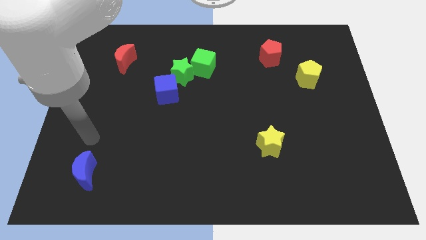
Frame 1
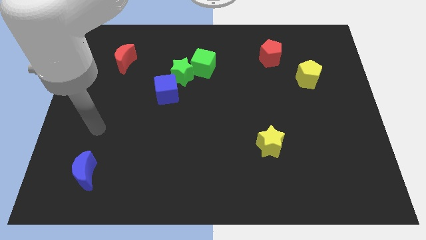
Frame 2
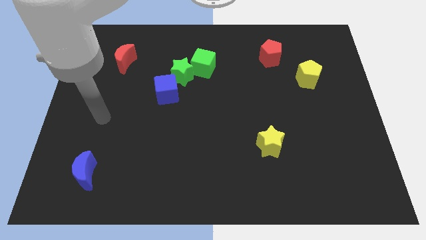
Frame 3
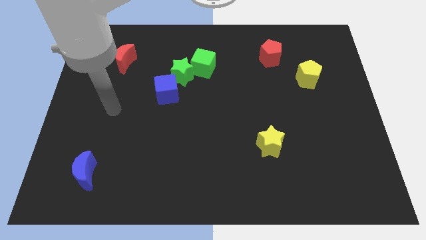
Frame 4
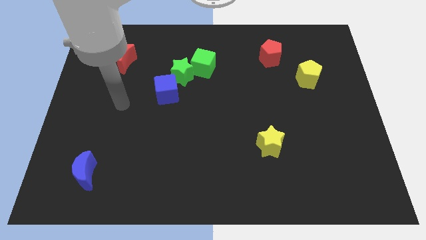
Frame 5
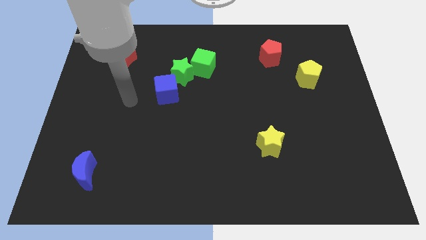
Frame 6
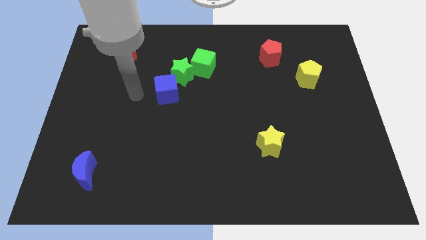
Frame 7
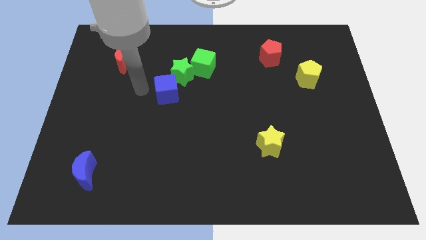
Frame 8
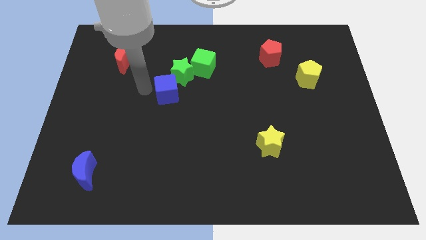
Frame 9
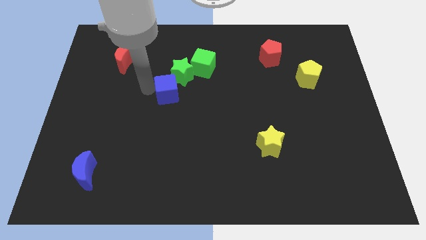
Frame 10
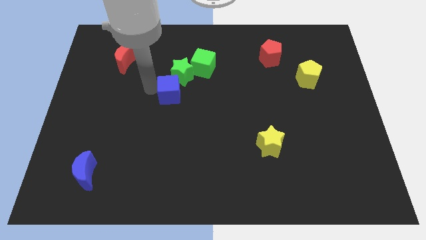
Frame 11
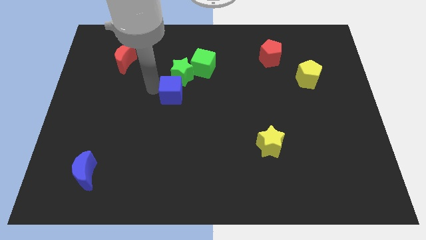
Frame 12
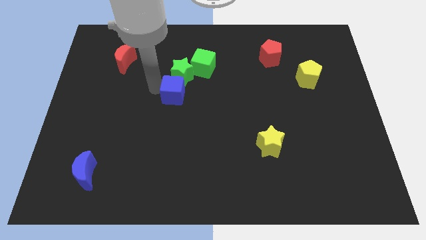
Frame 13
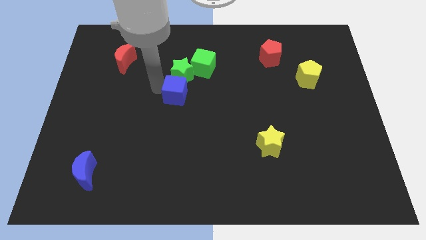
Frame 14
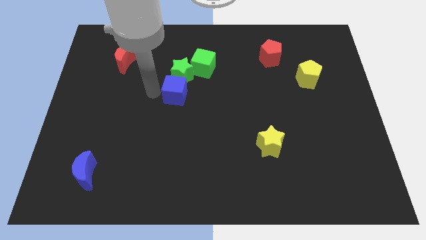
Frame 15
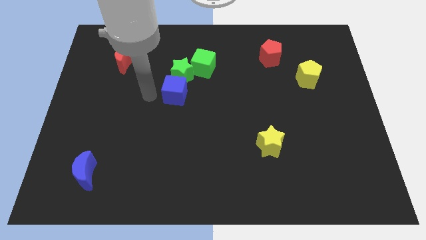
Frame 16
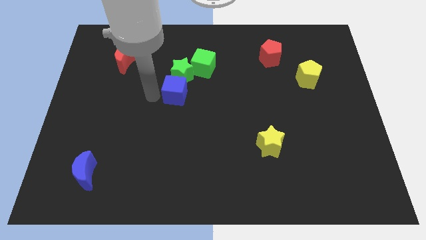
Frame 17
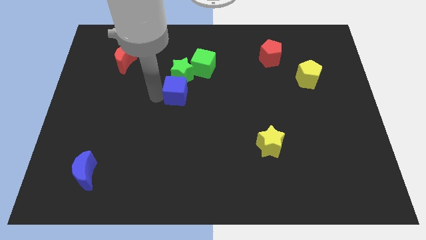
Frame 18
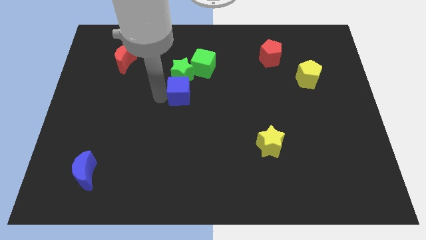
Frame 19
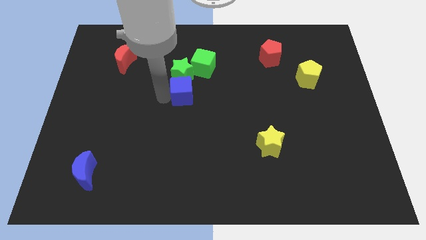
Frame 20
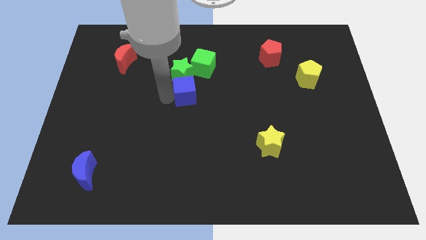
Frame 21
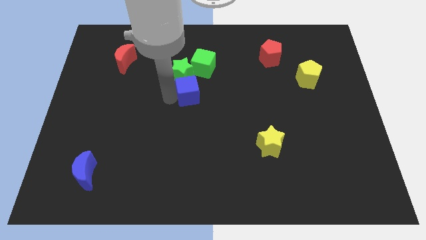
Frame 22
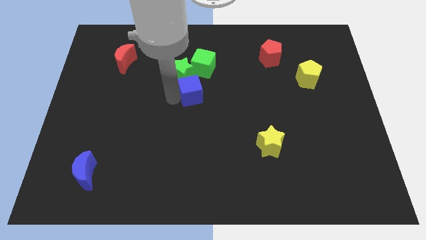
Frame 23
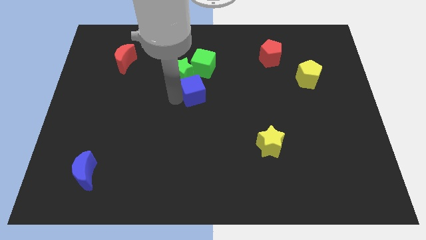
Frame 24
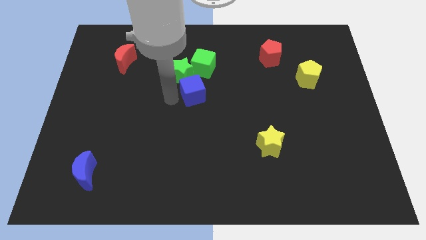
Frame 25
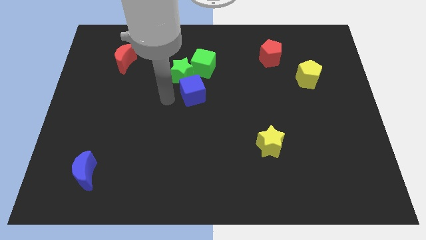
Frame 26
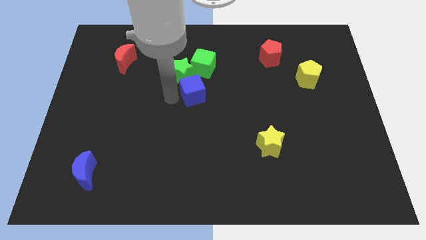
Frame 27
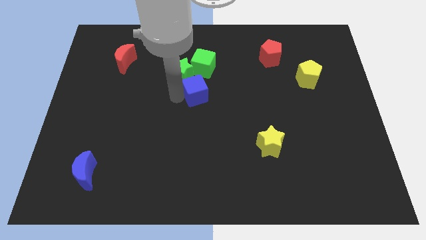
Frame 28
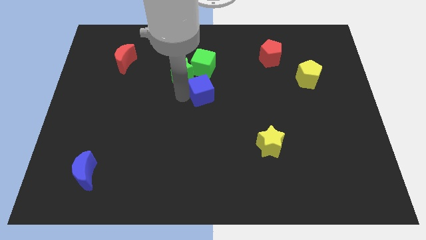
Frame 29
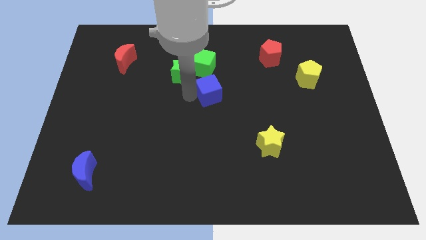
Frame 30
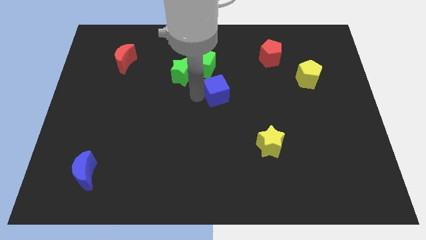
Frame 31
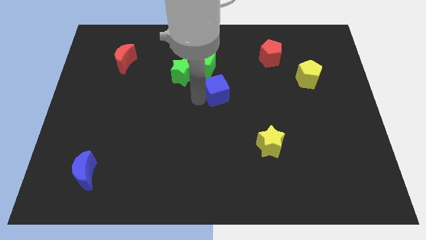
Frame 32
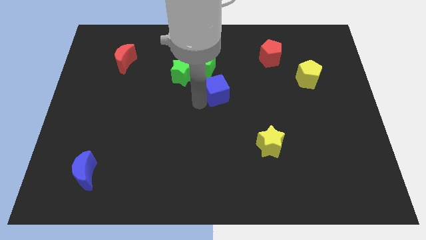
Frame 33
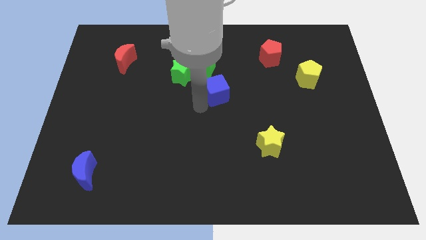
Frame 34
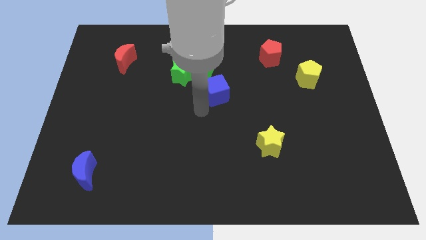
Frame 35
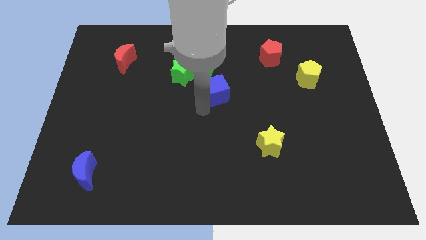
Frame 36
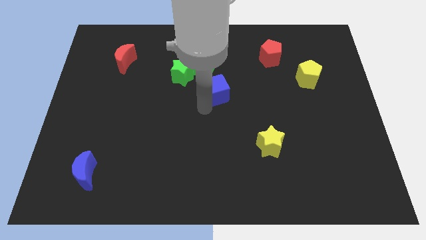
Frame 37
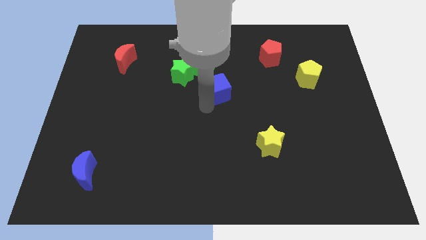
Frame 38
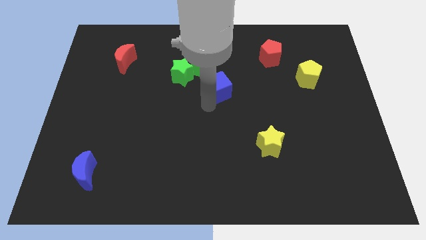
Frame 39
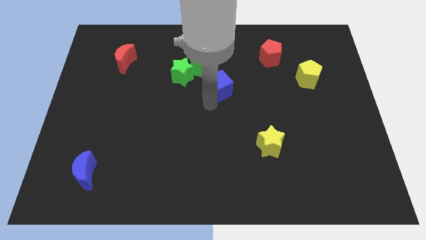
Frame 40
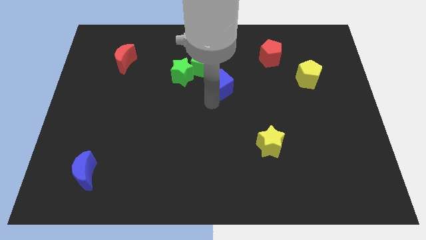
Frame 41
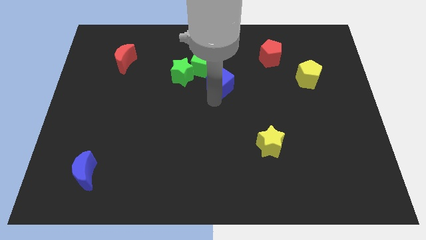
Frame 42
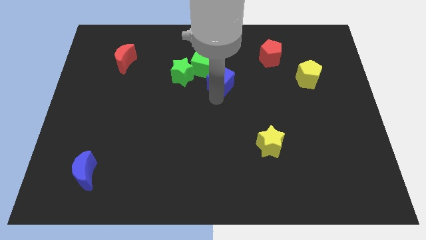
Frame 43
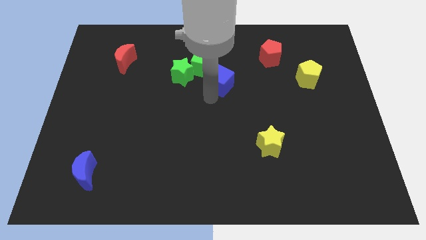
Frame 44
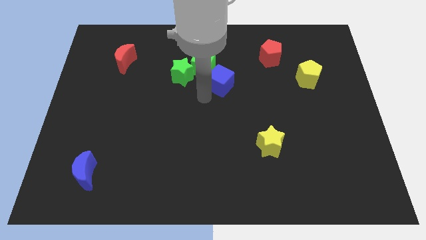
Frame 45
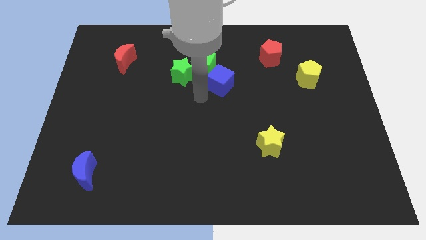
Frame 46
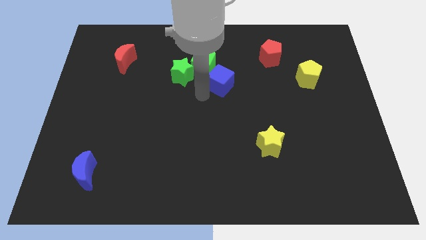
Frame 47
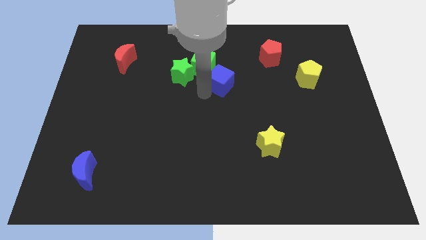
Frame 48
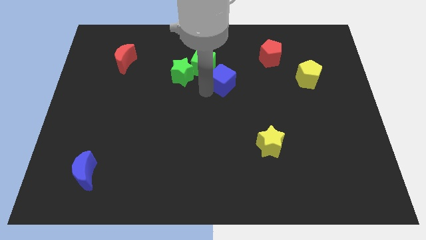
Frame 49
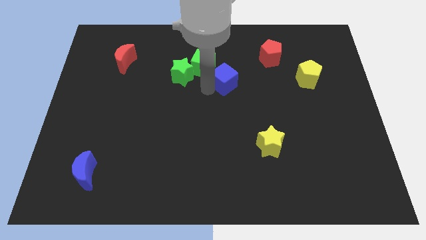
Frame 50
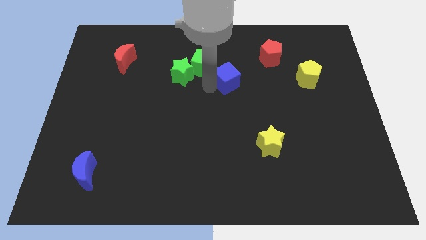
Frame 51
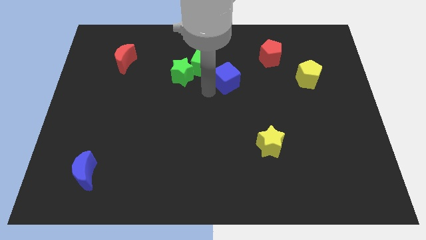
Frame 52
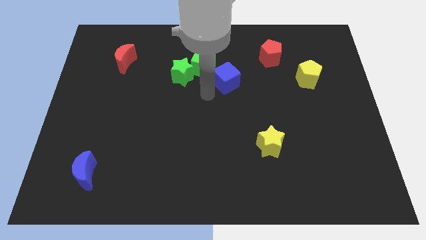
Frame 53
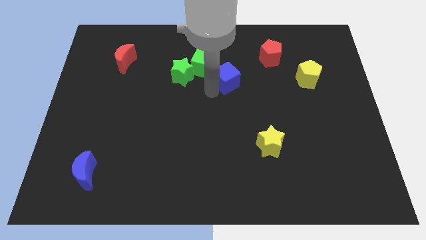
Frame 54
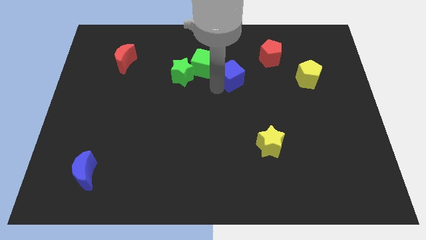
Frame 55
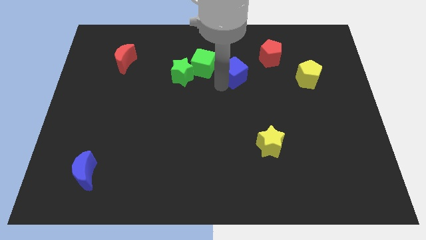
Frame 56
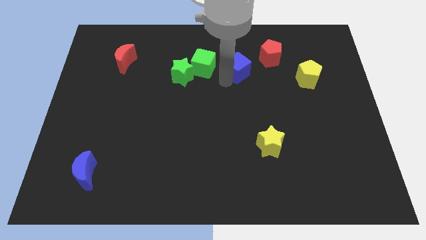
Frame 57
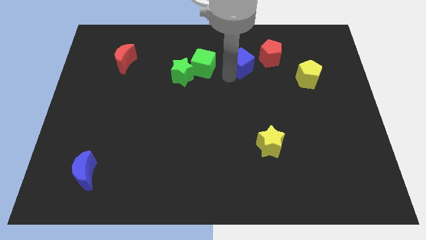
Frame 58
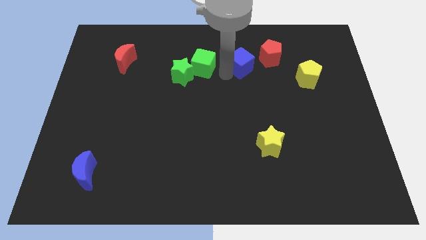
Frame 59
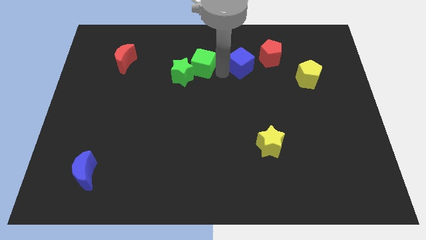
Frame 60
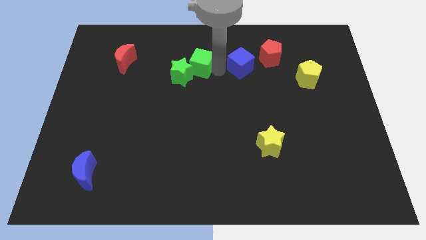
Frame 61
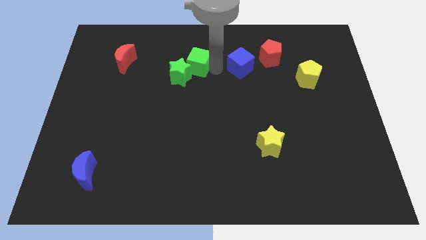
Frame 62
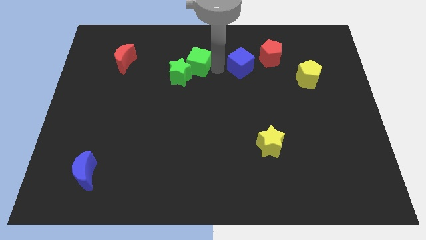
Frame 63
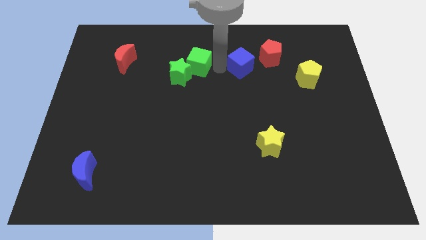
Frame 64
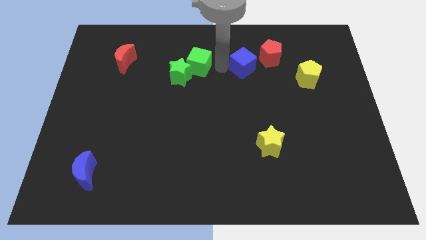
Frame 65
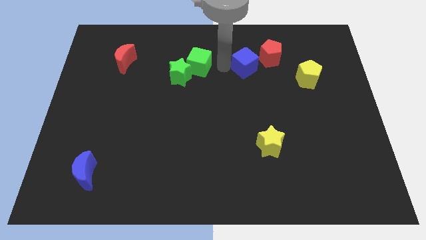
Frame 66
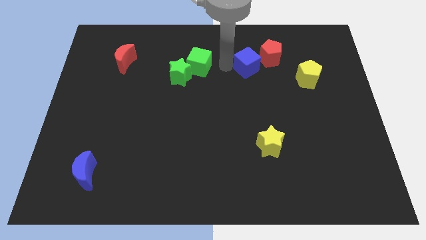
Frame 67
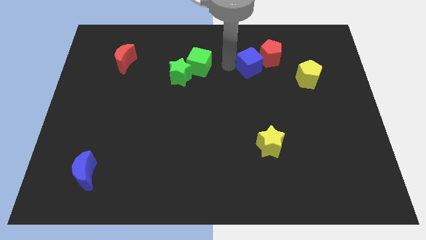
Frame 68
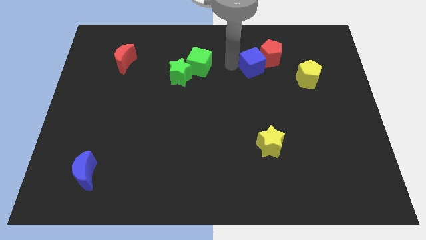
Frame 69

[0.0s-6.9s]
put the blue cube to the red pentagon

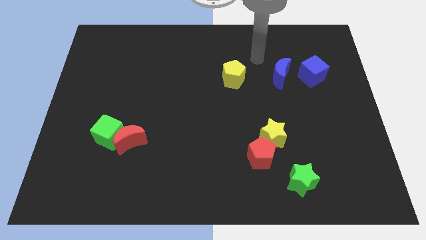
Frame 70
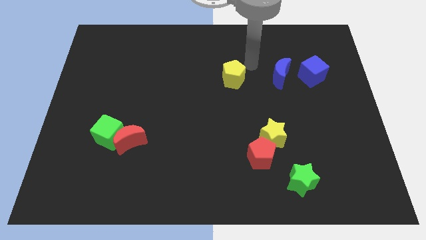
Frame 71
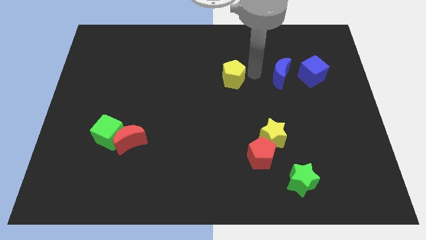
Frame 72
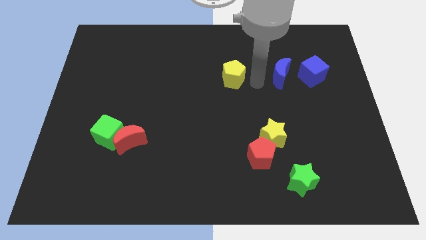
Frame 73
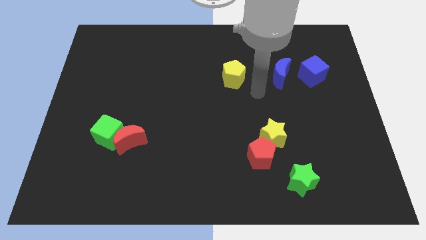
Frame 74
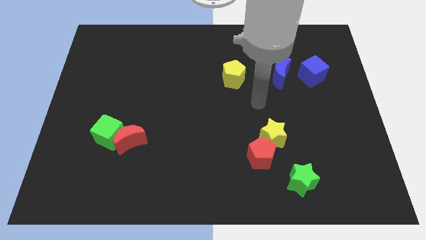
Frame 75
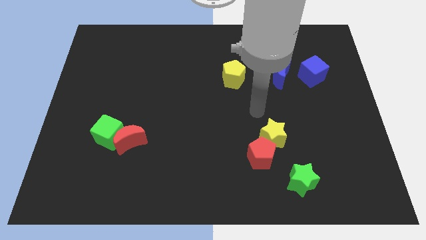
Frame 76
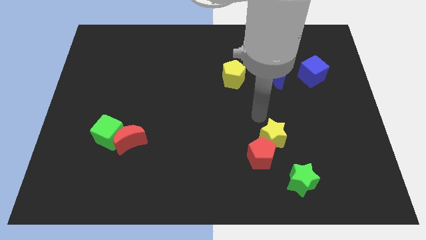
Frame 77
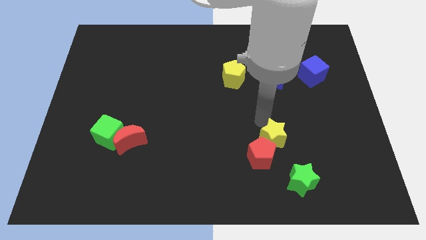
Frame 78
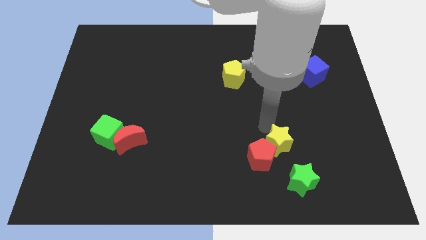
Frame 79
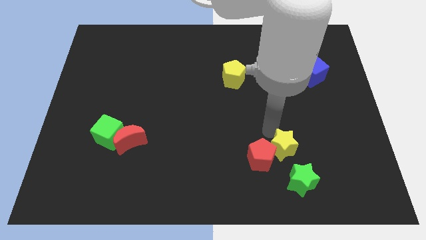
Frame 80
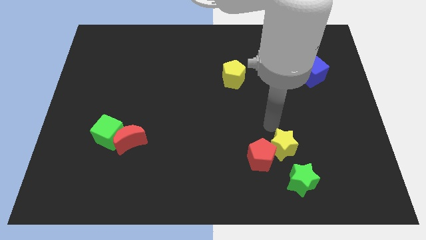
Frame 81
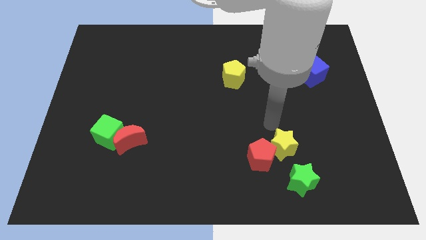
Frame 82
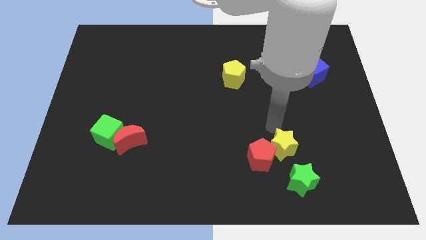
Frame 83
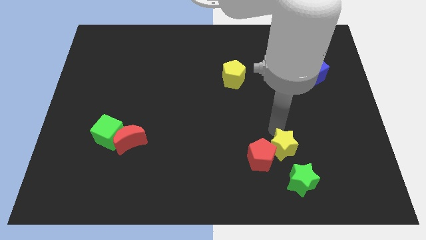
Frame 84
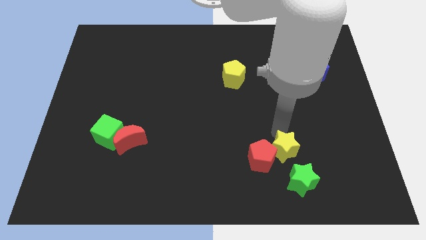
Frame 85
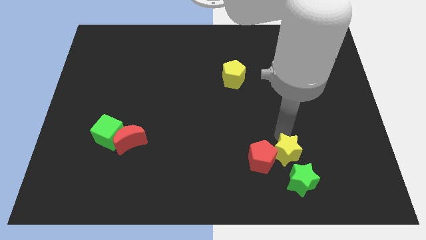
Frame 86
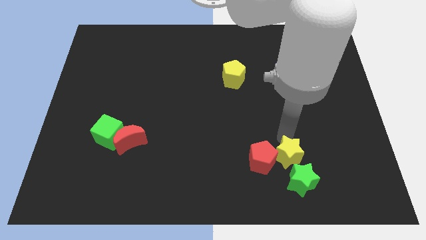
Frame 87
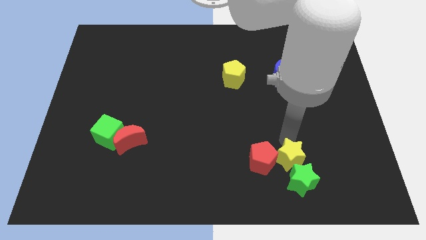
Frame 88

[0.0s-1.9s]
slide the yellow star towards the green star
